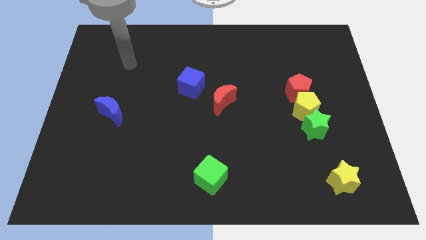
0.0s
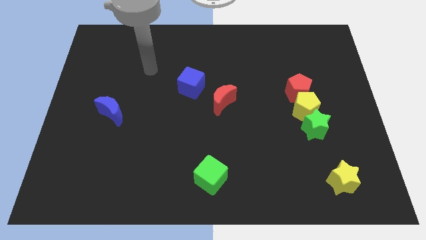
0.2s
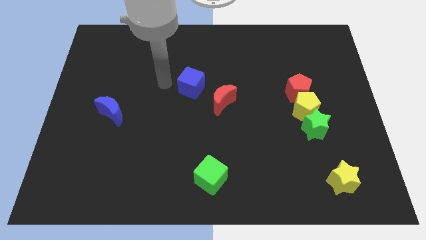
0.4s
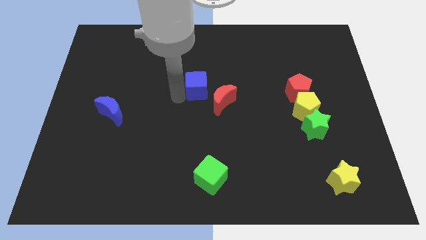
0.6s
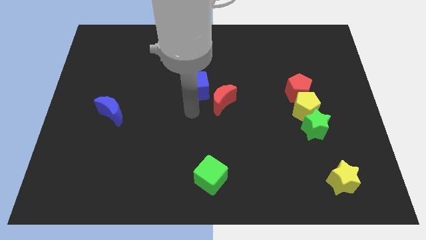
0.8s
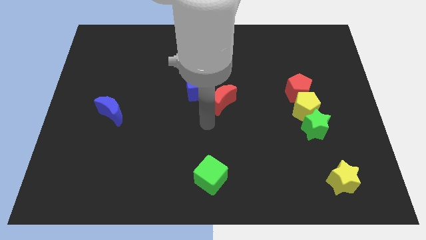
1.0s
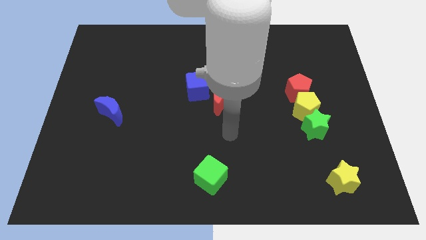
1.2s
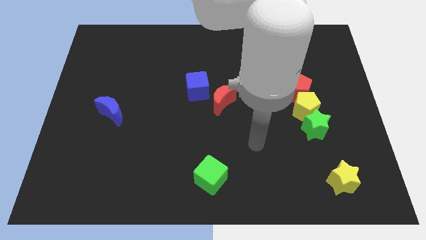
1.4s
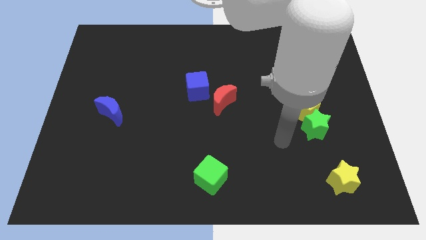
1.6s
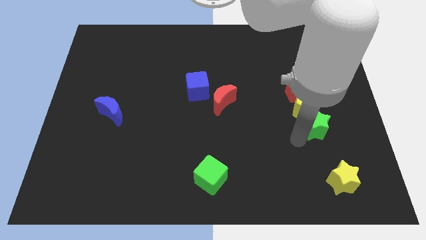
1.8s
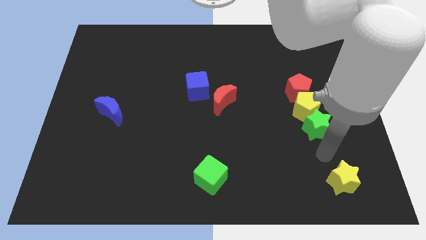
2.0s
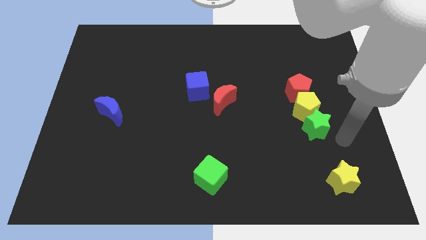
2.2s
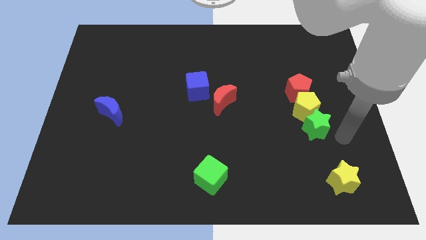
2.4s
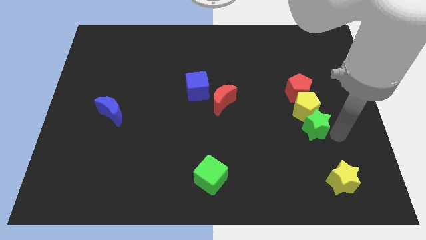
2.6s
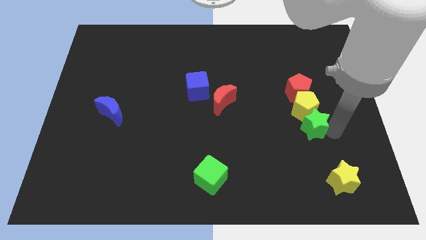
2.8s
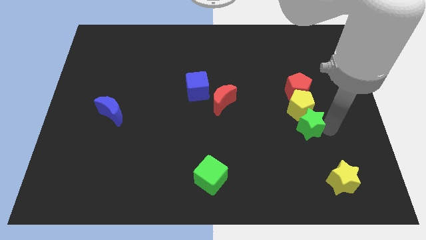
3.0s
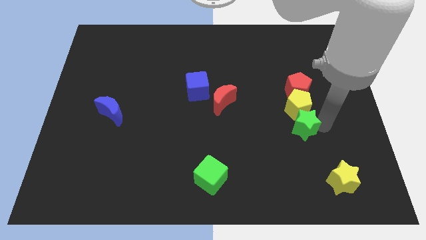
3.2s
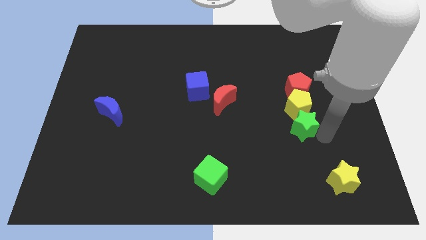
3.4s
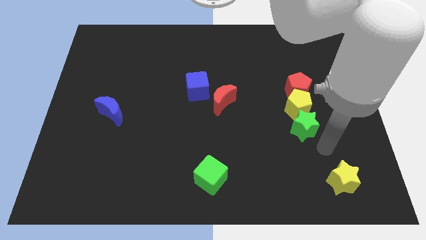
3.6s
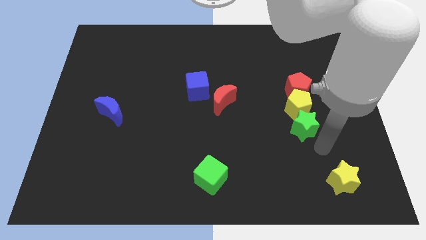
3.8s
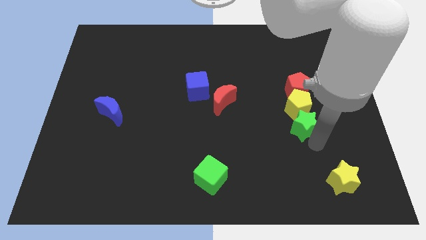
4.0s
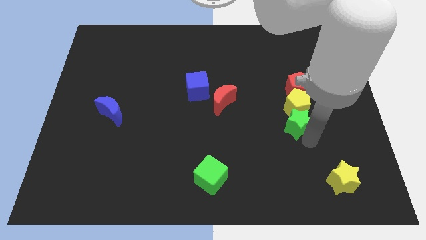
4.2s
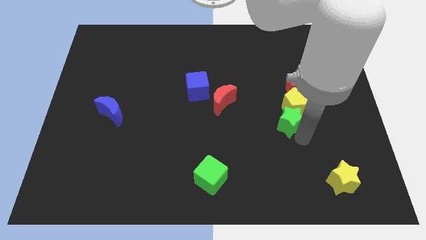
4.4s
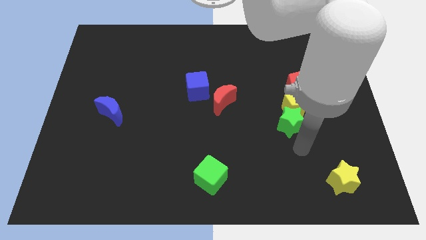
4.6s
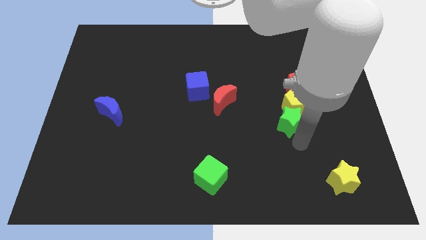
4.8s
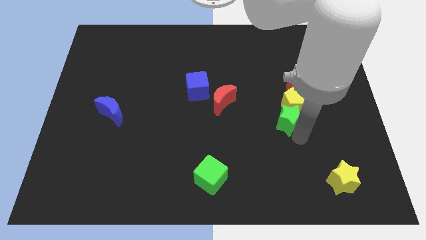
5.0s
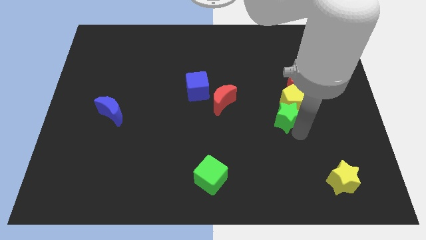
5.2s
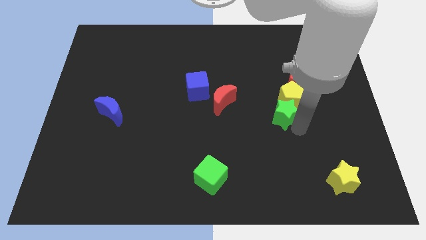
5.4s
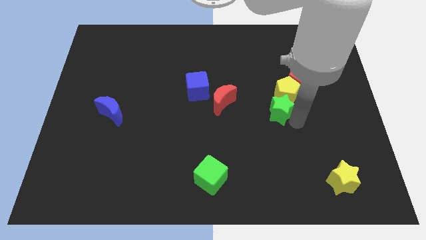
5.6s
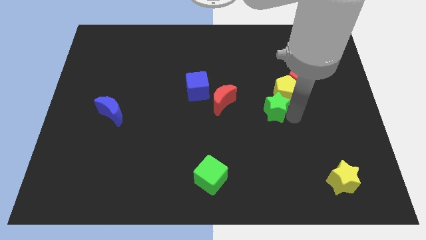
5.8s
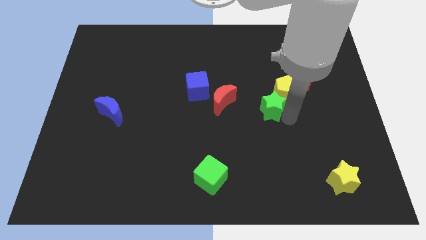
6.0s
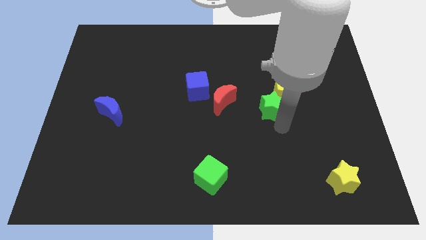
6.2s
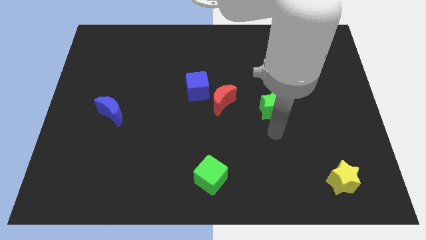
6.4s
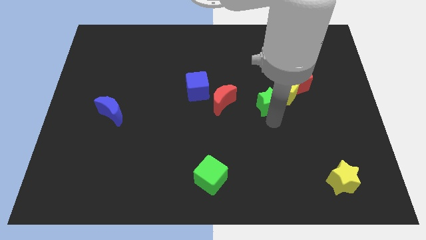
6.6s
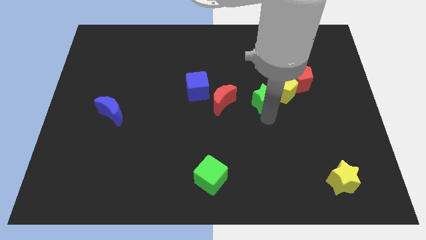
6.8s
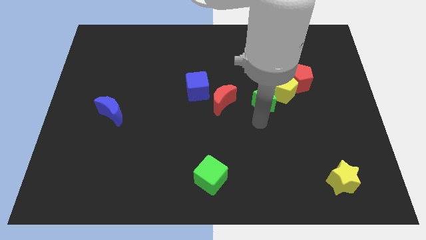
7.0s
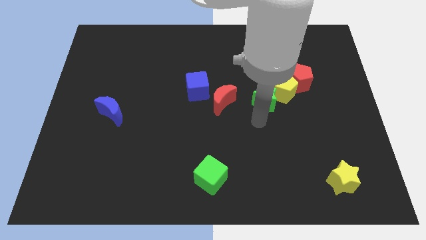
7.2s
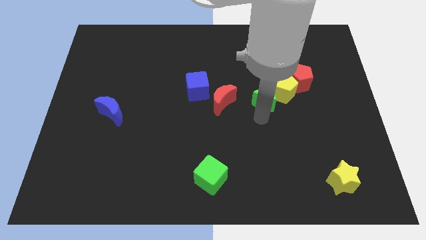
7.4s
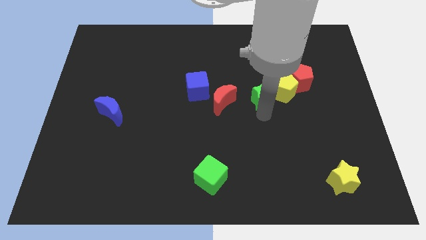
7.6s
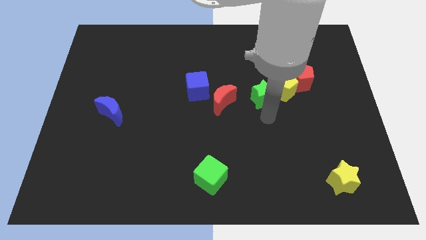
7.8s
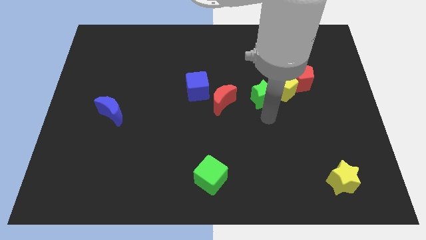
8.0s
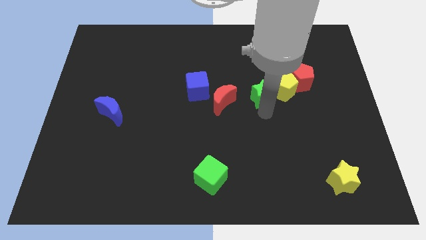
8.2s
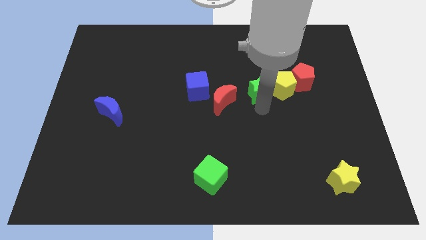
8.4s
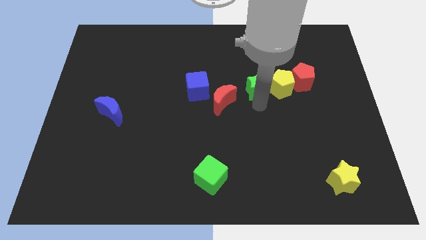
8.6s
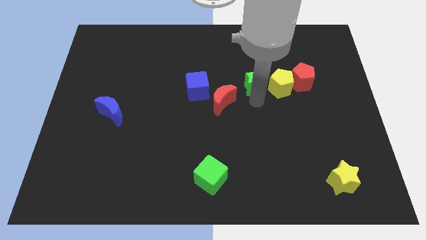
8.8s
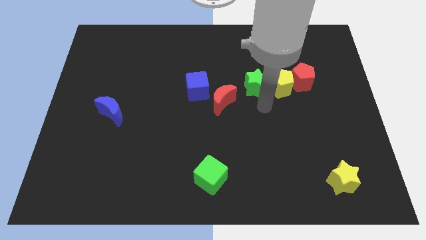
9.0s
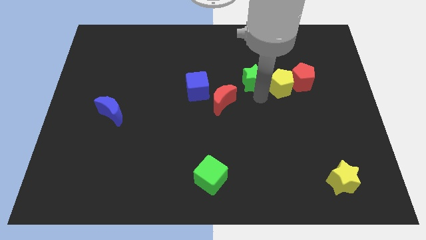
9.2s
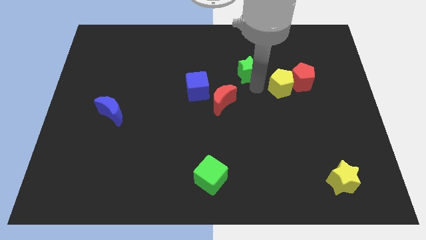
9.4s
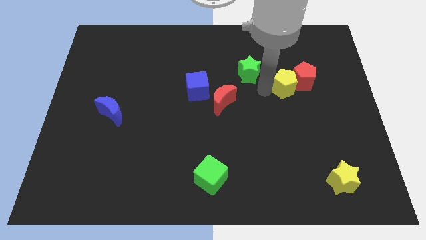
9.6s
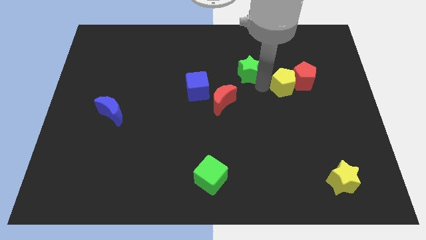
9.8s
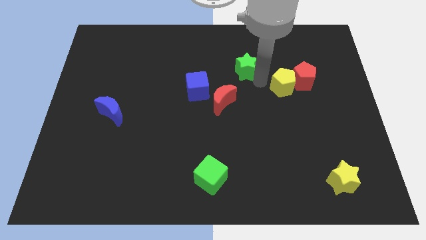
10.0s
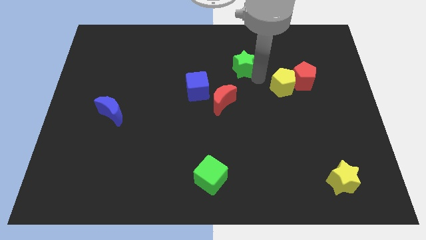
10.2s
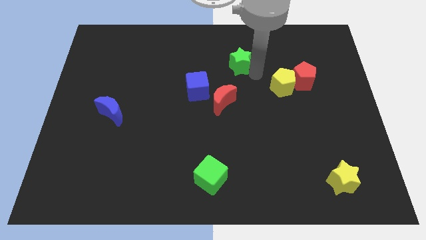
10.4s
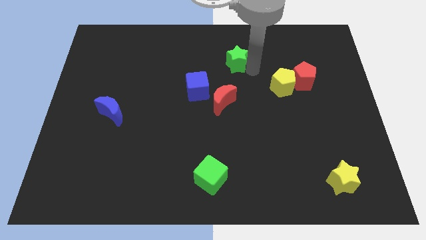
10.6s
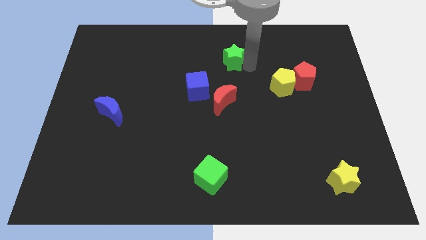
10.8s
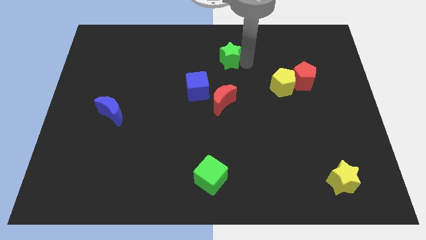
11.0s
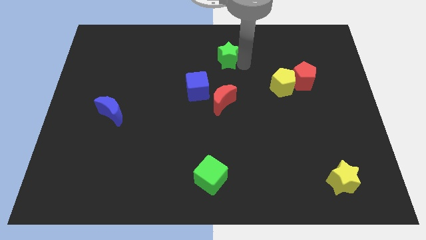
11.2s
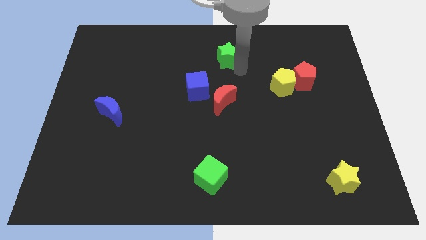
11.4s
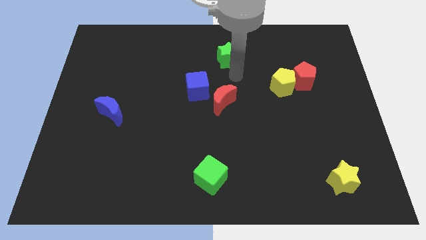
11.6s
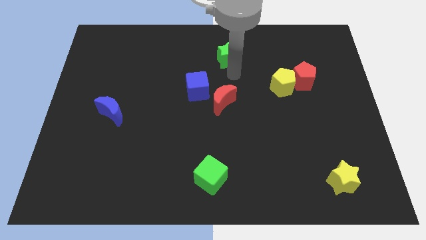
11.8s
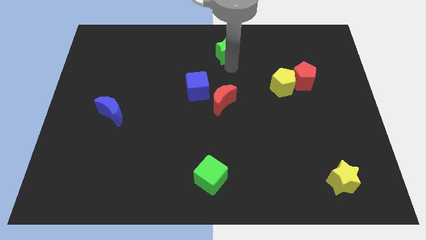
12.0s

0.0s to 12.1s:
put the green star to the top
